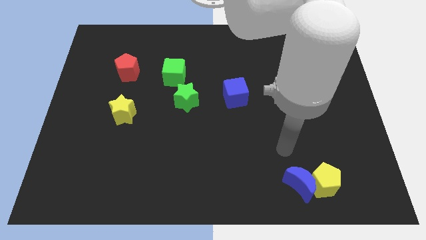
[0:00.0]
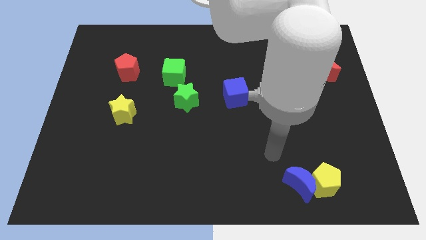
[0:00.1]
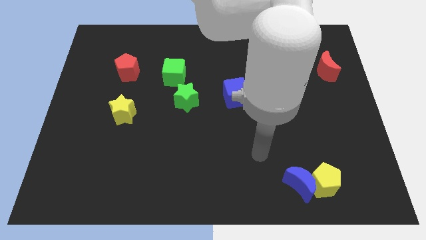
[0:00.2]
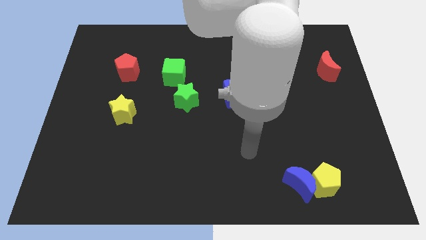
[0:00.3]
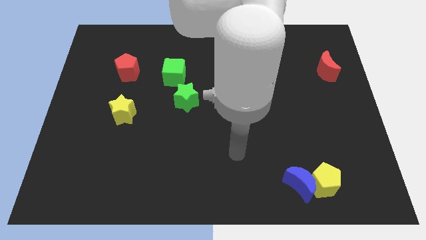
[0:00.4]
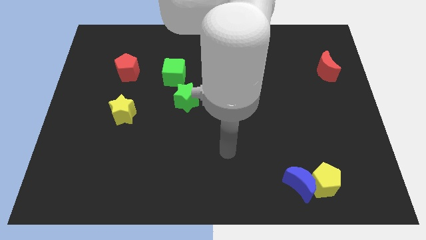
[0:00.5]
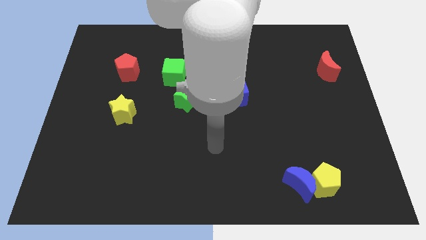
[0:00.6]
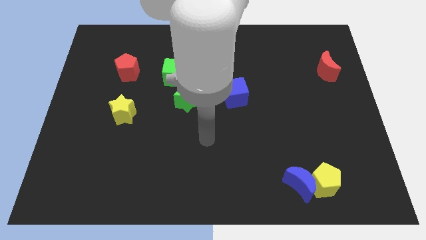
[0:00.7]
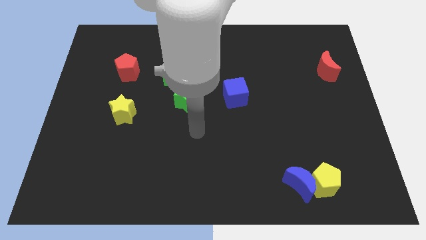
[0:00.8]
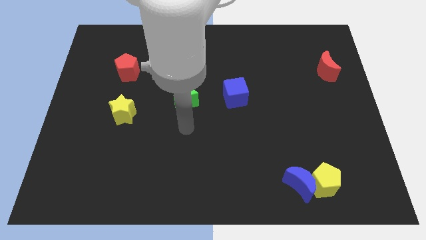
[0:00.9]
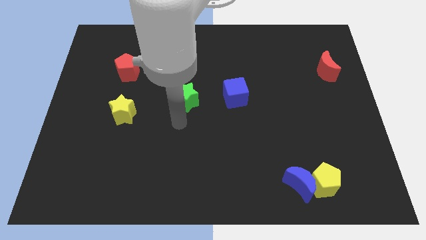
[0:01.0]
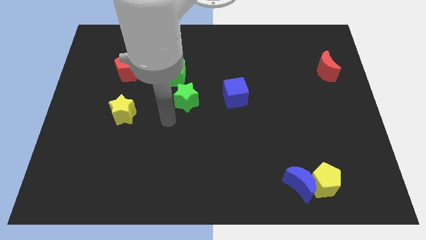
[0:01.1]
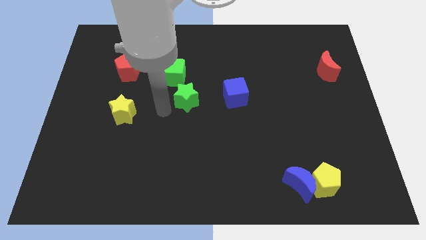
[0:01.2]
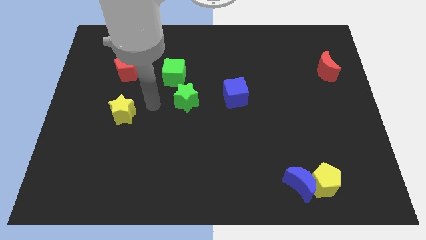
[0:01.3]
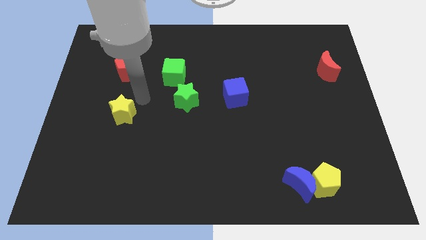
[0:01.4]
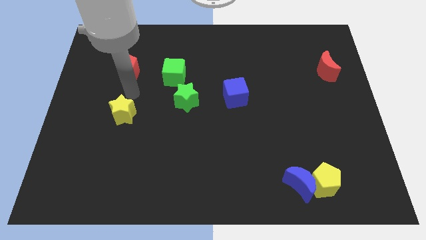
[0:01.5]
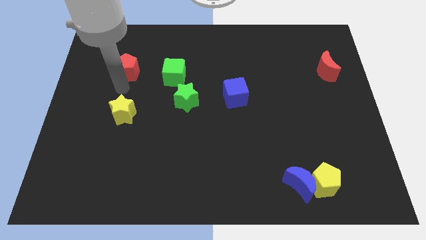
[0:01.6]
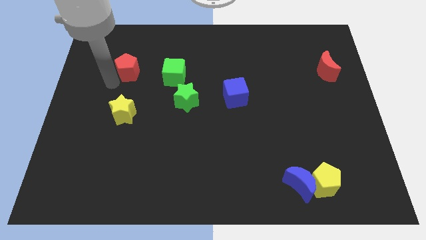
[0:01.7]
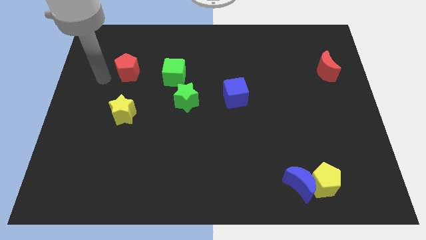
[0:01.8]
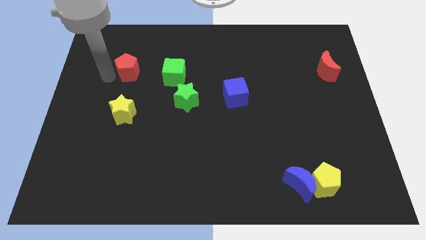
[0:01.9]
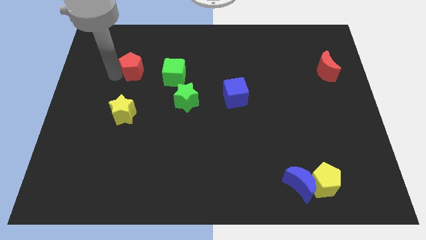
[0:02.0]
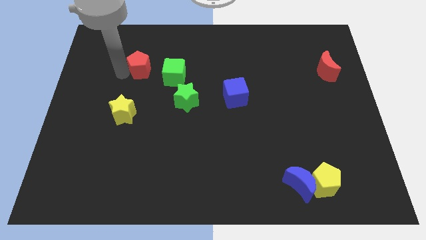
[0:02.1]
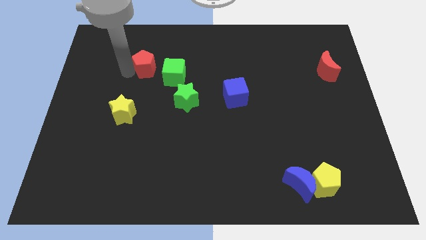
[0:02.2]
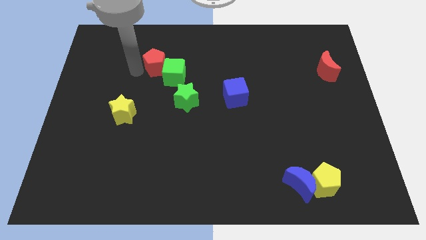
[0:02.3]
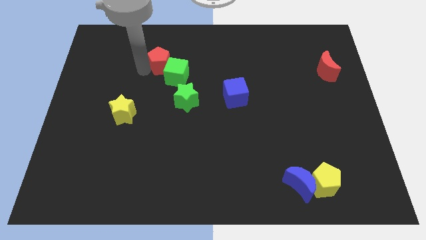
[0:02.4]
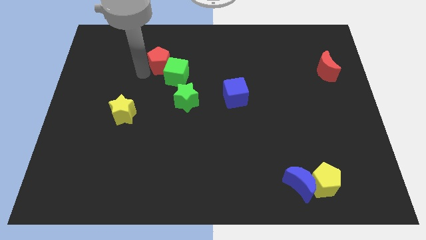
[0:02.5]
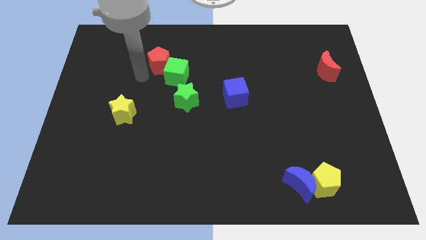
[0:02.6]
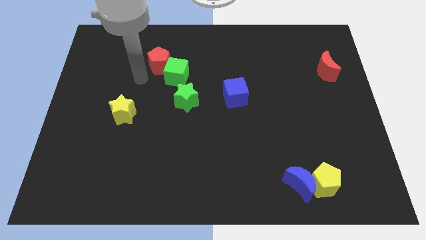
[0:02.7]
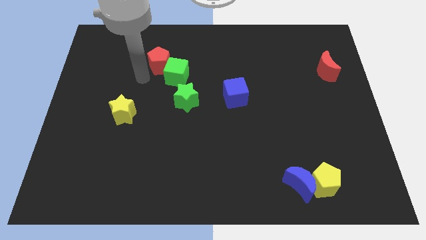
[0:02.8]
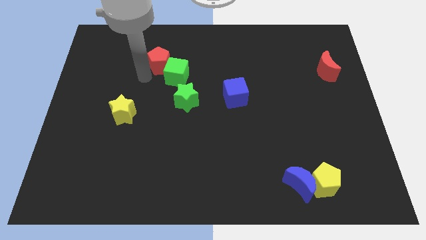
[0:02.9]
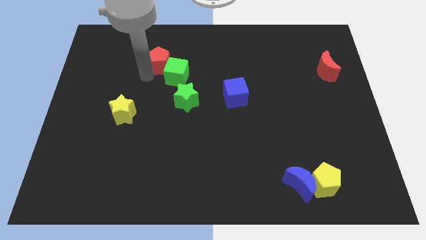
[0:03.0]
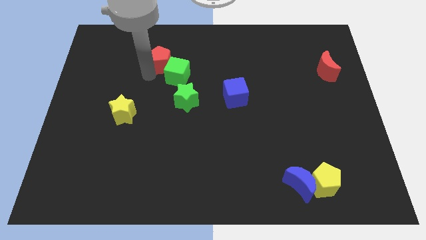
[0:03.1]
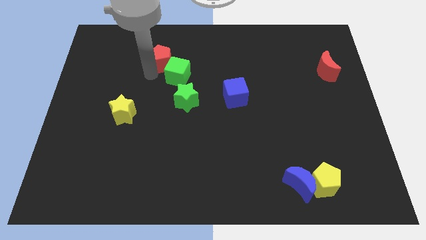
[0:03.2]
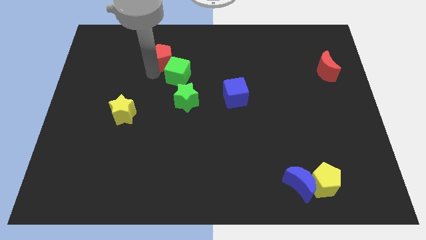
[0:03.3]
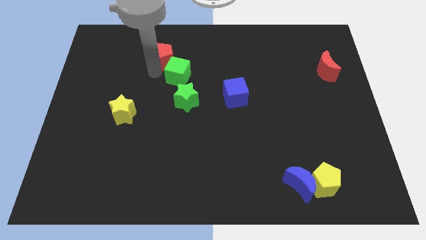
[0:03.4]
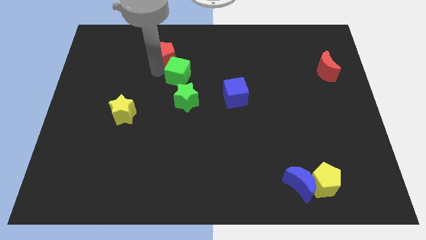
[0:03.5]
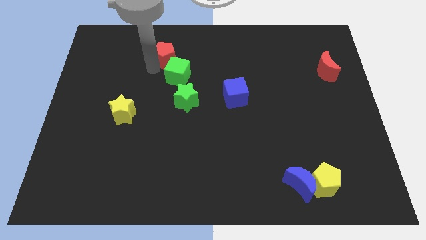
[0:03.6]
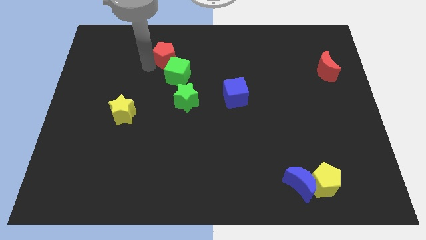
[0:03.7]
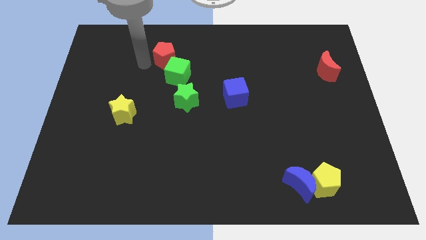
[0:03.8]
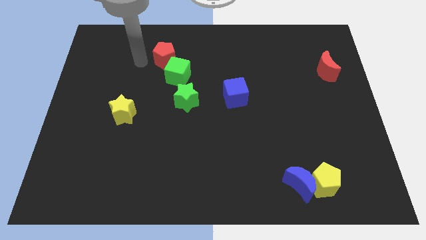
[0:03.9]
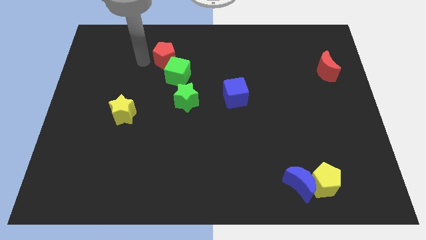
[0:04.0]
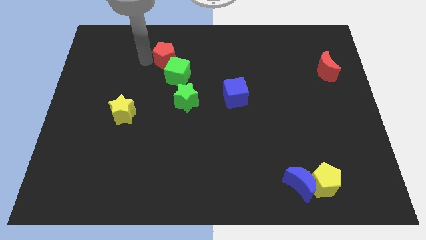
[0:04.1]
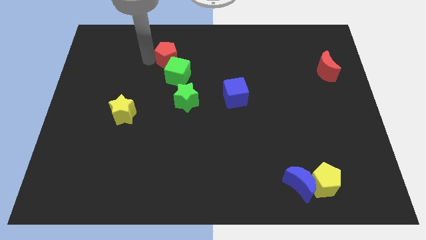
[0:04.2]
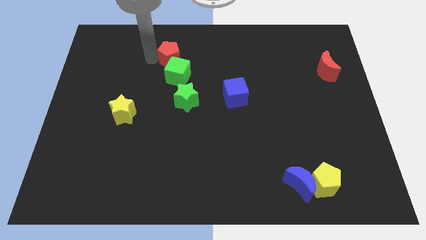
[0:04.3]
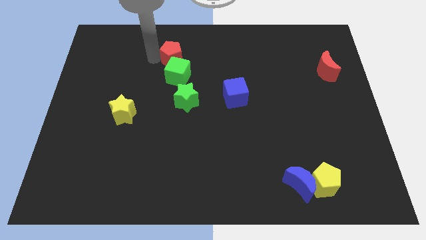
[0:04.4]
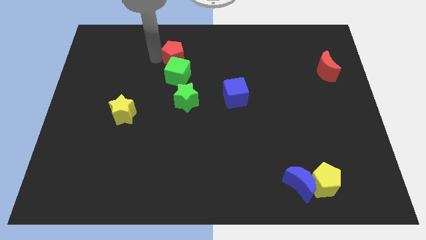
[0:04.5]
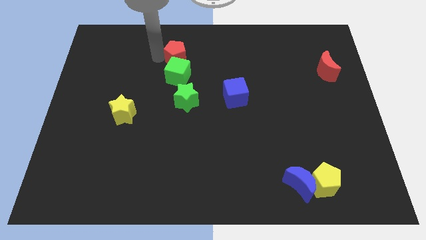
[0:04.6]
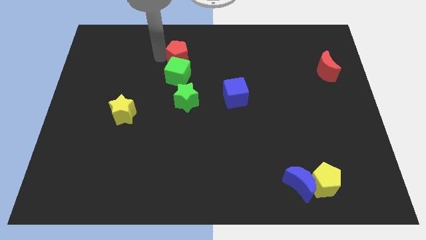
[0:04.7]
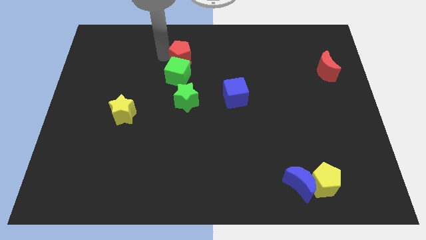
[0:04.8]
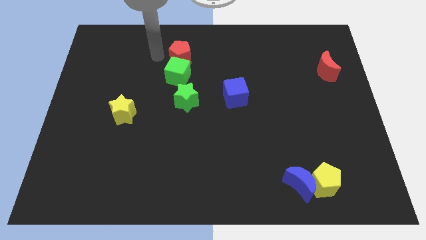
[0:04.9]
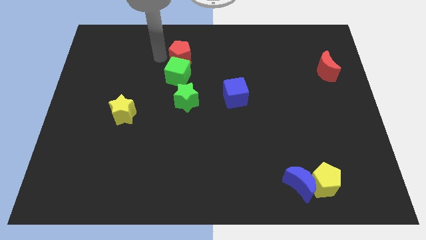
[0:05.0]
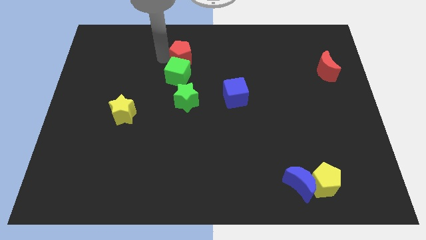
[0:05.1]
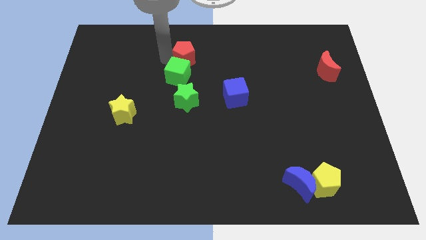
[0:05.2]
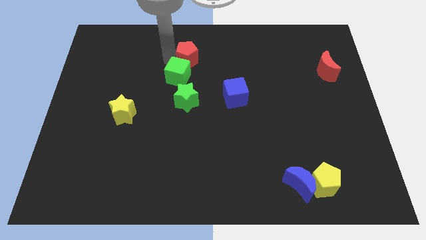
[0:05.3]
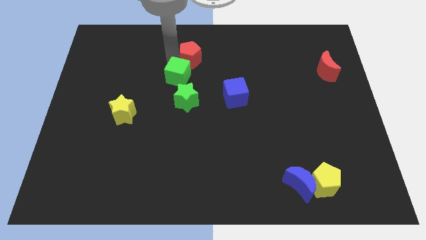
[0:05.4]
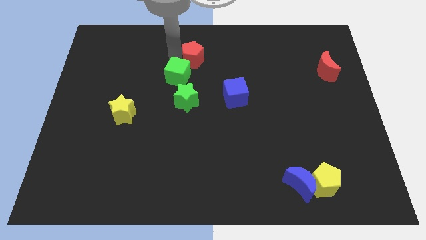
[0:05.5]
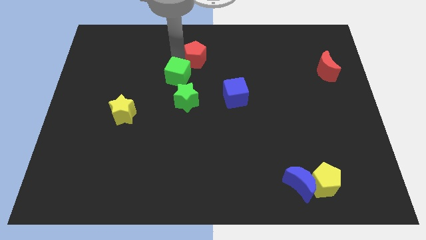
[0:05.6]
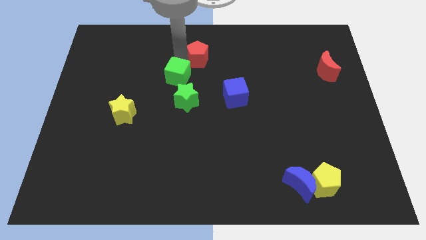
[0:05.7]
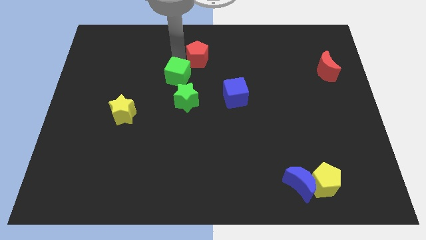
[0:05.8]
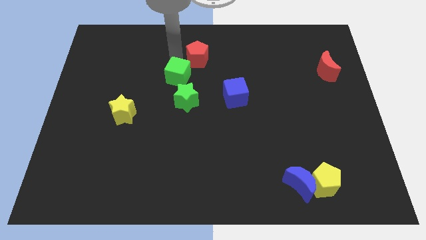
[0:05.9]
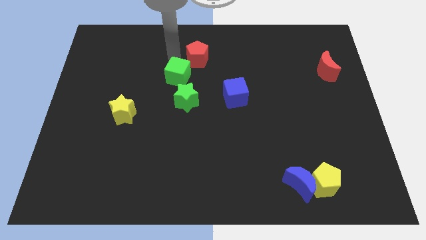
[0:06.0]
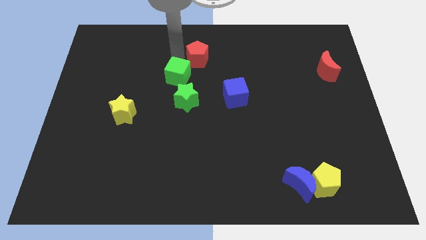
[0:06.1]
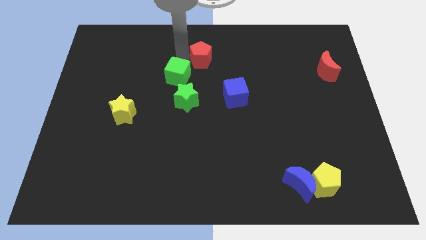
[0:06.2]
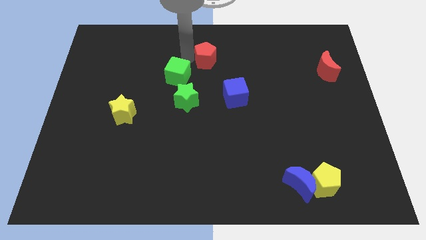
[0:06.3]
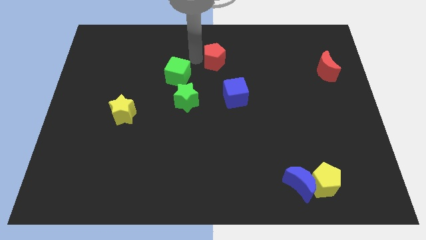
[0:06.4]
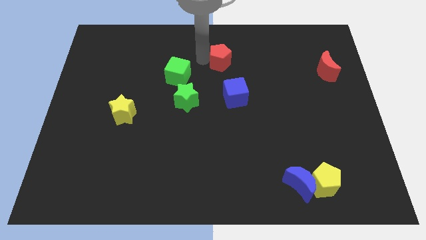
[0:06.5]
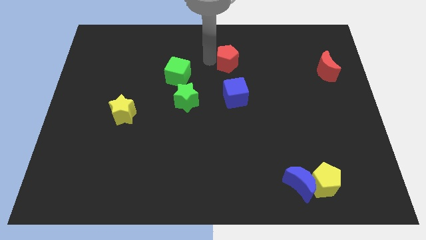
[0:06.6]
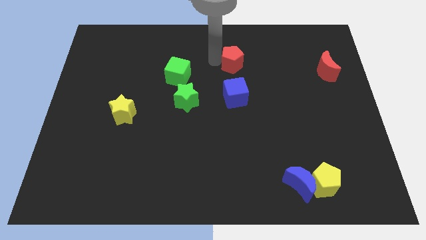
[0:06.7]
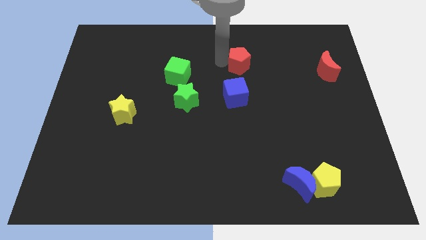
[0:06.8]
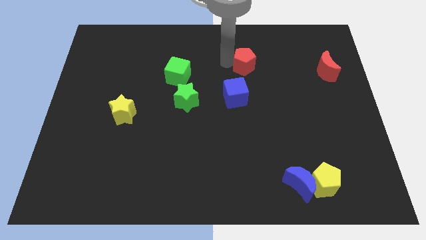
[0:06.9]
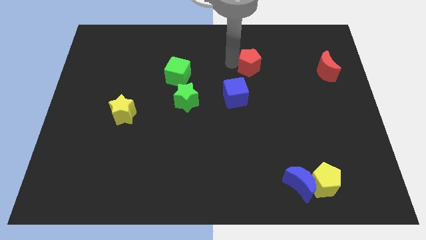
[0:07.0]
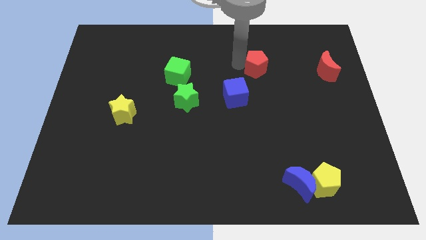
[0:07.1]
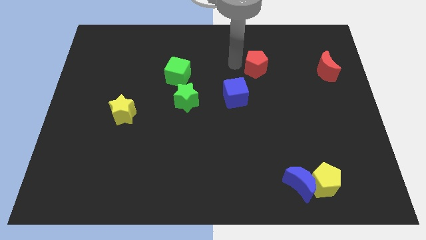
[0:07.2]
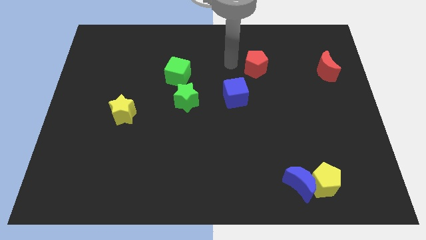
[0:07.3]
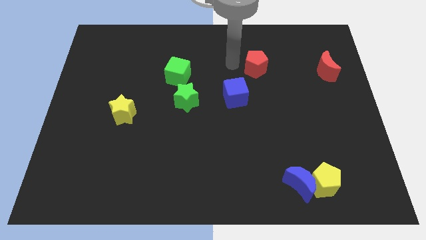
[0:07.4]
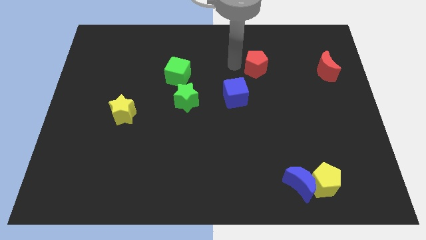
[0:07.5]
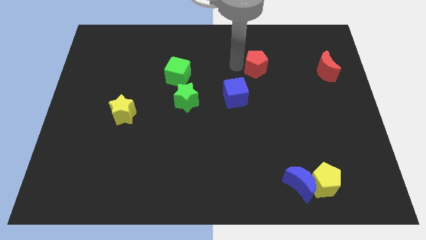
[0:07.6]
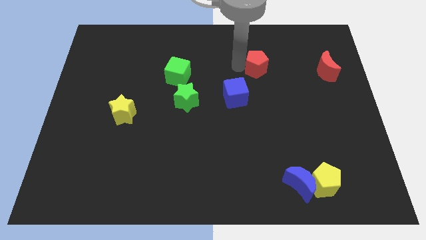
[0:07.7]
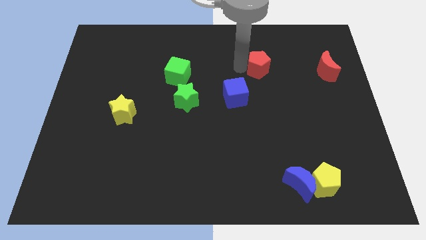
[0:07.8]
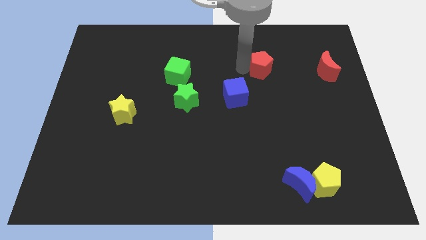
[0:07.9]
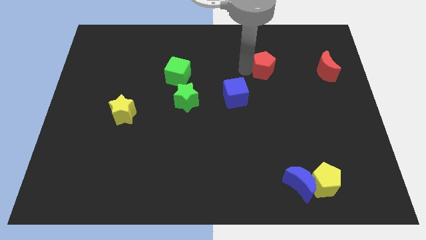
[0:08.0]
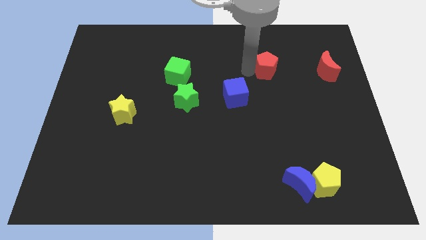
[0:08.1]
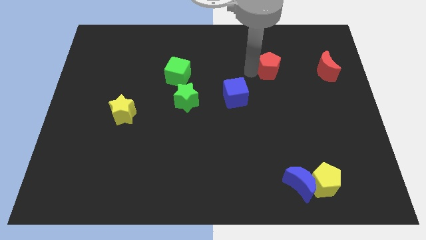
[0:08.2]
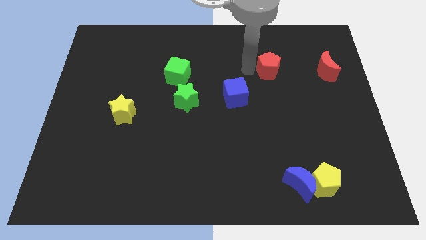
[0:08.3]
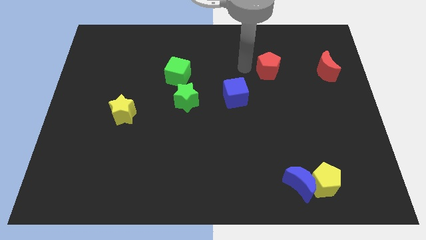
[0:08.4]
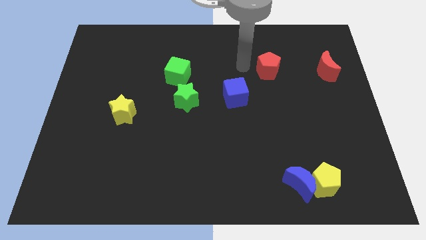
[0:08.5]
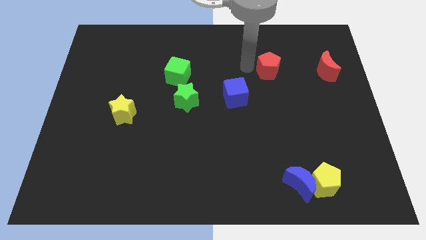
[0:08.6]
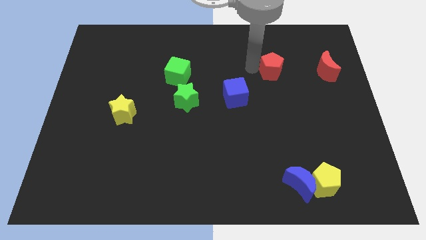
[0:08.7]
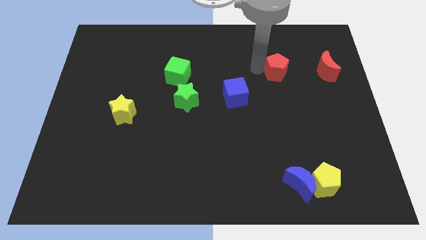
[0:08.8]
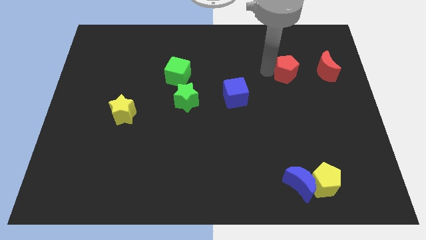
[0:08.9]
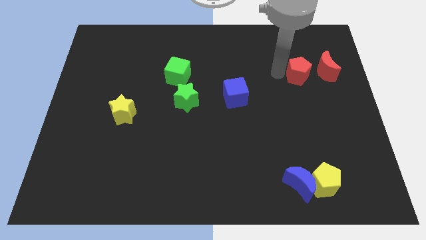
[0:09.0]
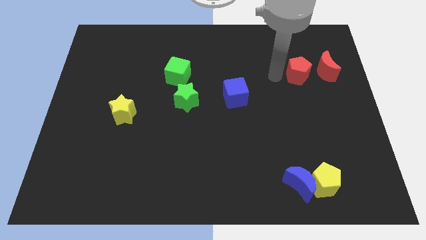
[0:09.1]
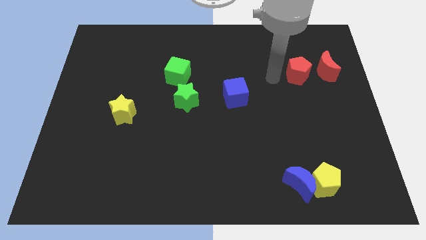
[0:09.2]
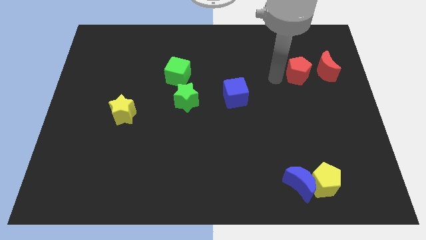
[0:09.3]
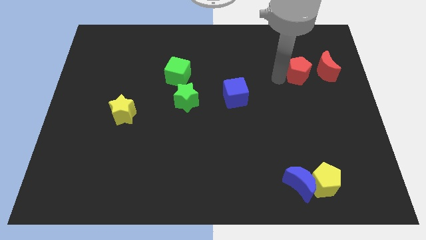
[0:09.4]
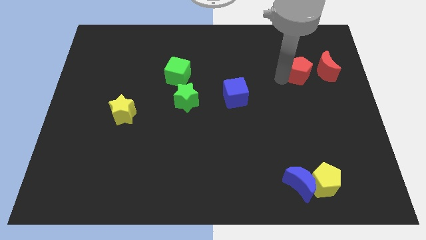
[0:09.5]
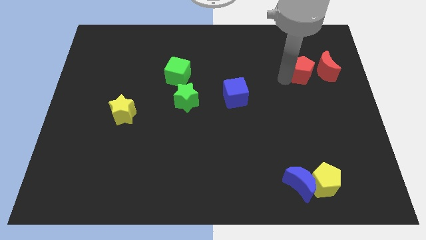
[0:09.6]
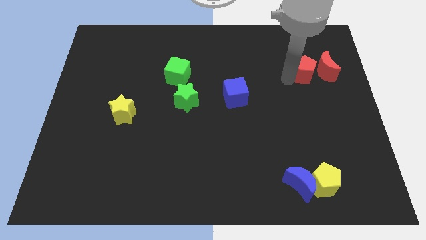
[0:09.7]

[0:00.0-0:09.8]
push the red pentagon next to the red moon
